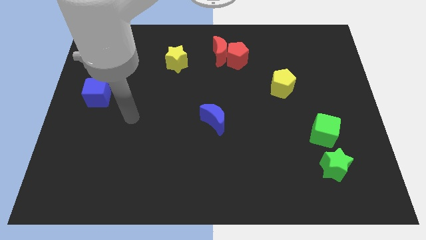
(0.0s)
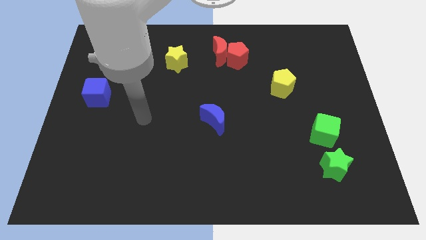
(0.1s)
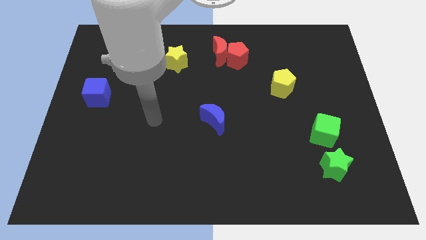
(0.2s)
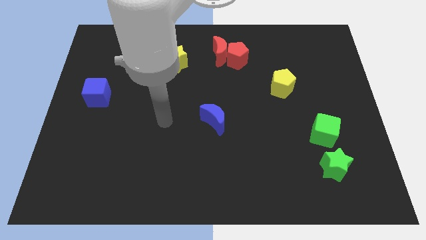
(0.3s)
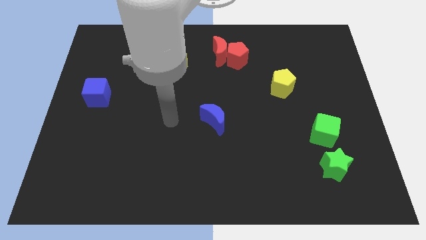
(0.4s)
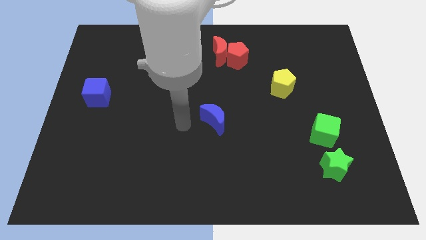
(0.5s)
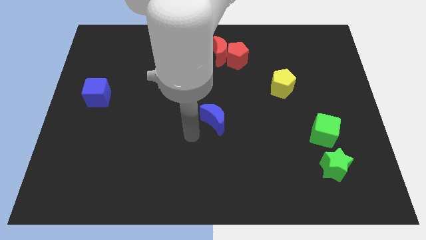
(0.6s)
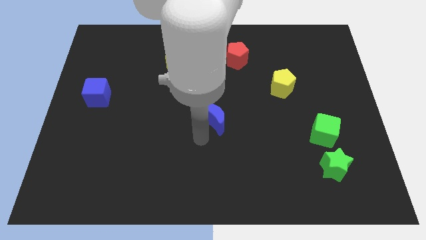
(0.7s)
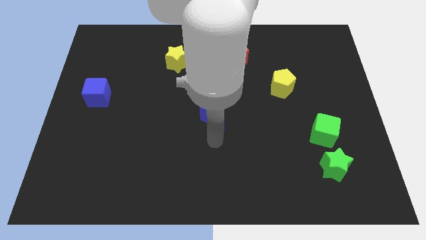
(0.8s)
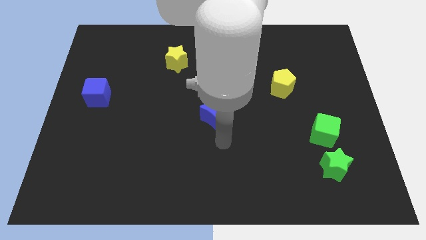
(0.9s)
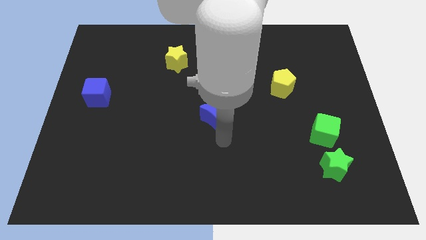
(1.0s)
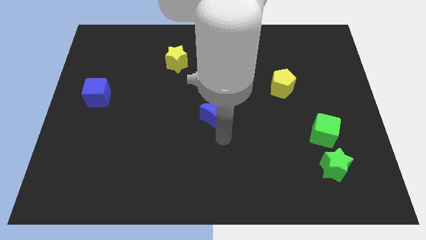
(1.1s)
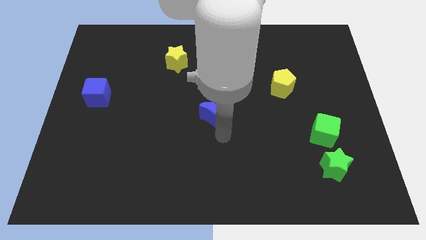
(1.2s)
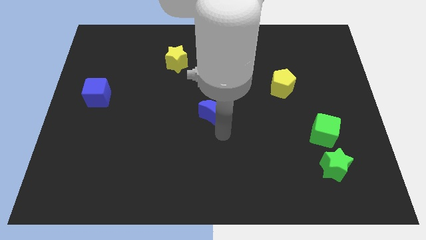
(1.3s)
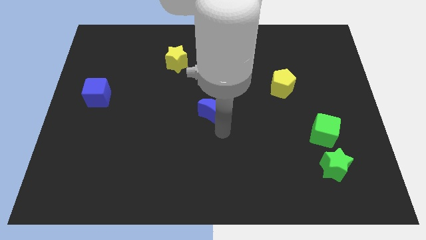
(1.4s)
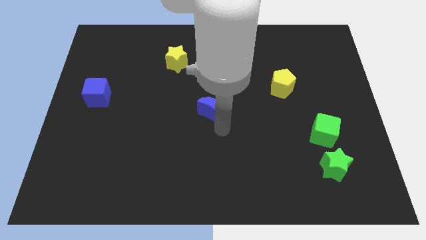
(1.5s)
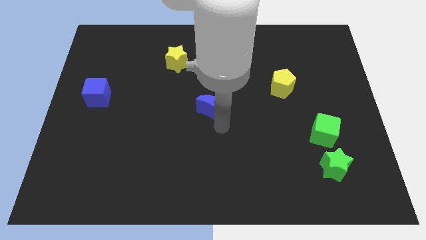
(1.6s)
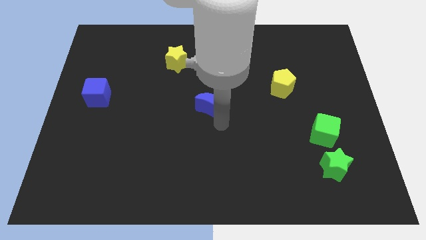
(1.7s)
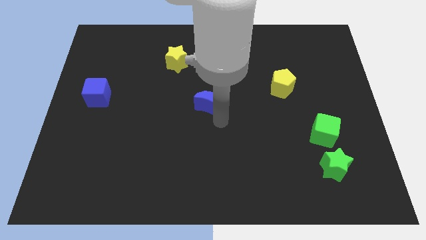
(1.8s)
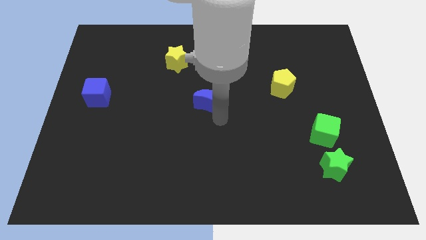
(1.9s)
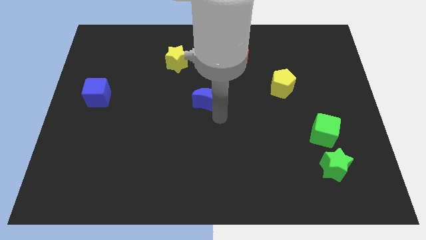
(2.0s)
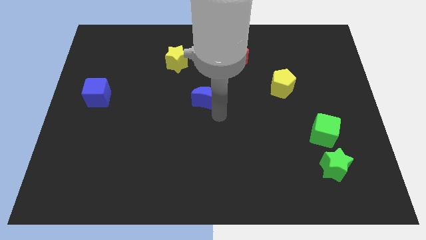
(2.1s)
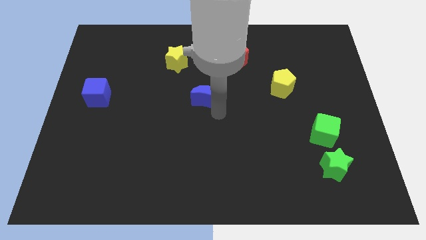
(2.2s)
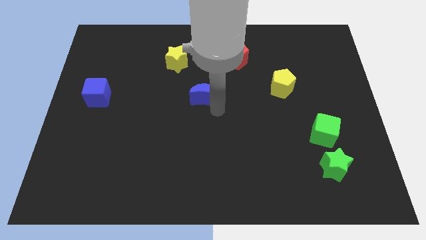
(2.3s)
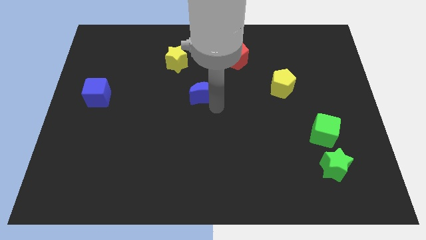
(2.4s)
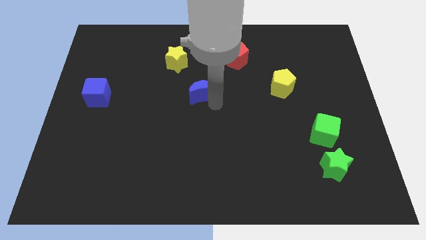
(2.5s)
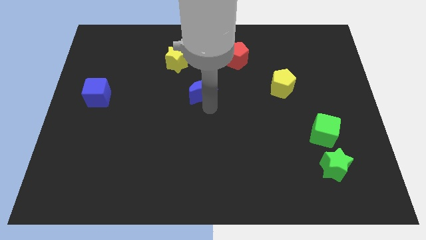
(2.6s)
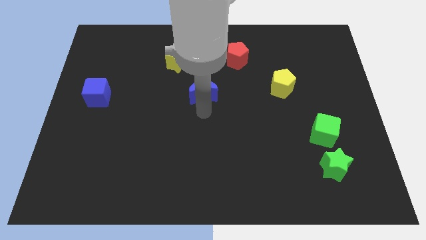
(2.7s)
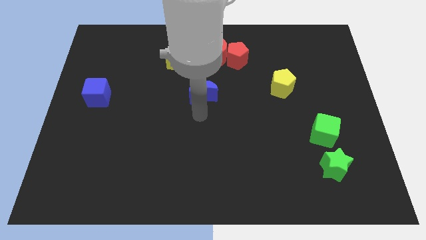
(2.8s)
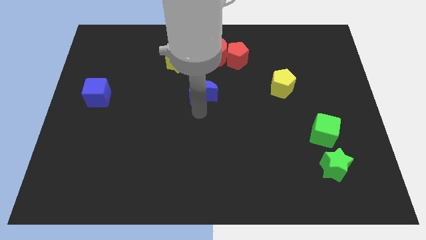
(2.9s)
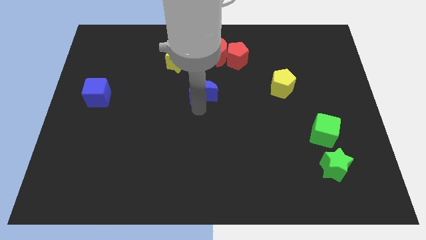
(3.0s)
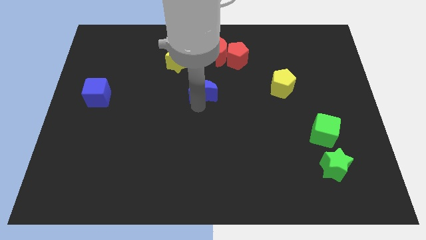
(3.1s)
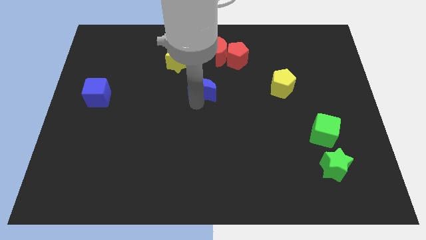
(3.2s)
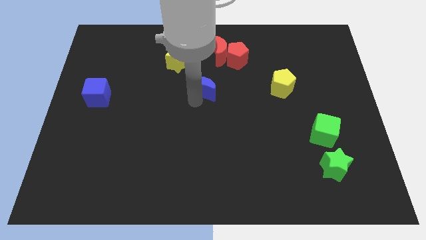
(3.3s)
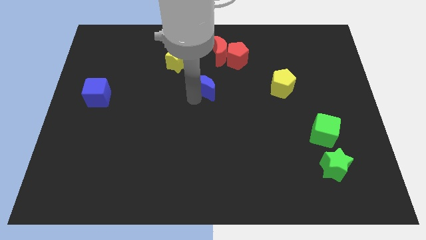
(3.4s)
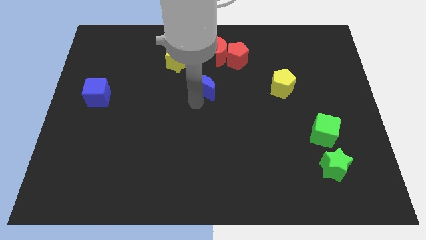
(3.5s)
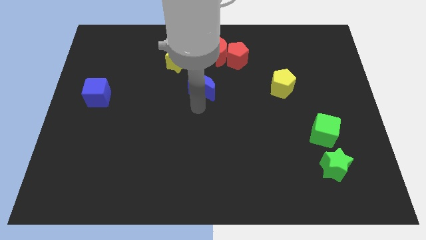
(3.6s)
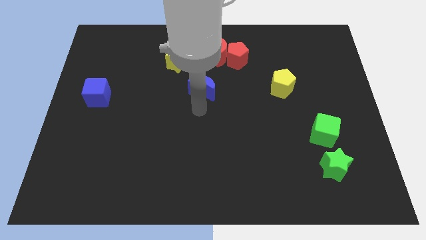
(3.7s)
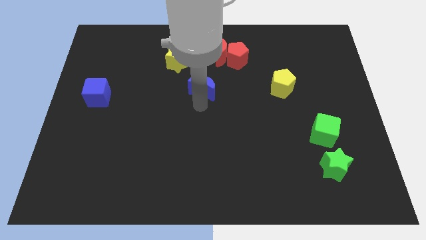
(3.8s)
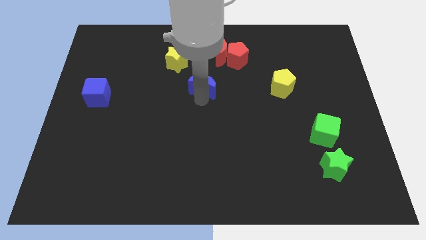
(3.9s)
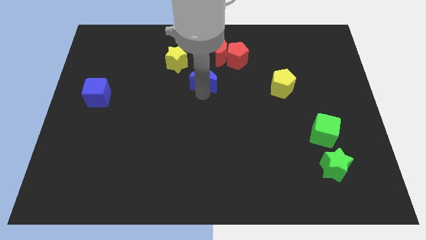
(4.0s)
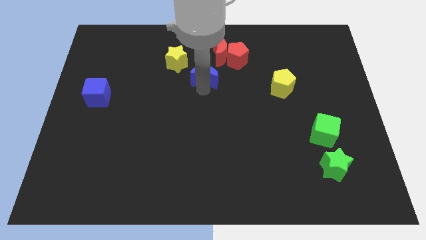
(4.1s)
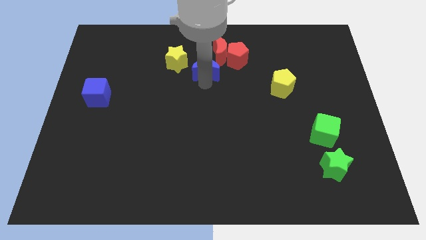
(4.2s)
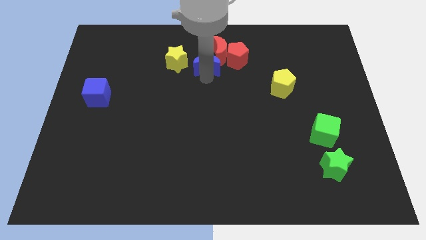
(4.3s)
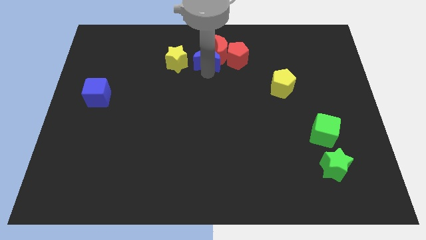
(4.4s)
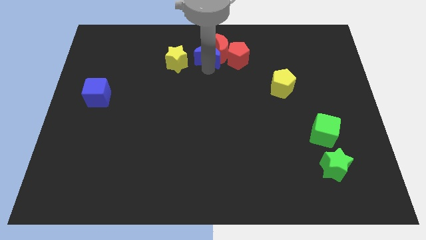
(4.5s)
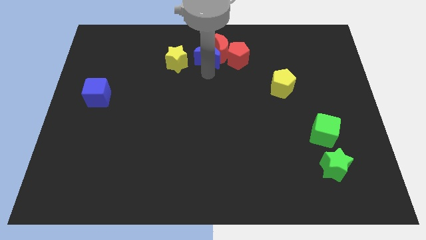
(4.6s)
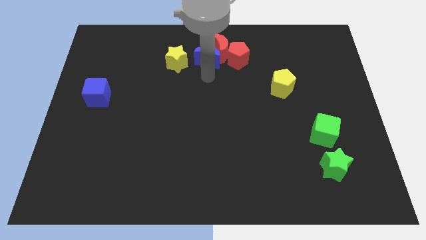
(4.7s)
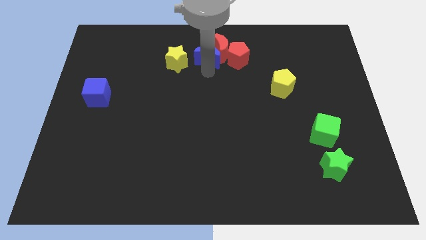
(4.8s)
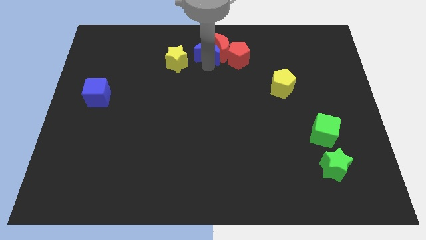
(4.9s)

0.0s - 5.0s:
move the blue moon to the towards your base

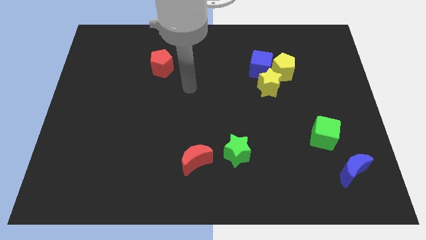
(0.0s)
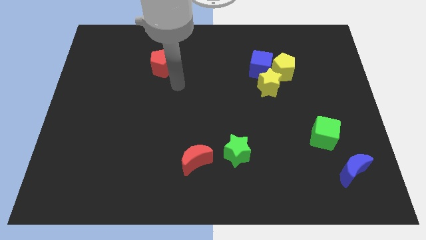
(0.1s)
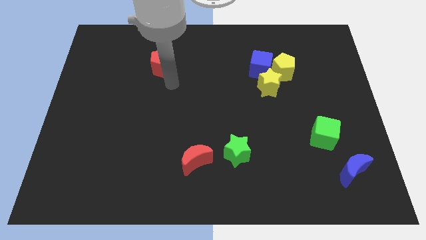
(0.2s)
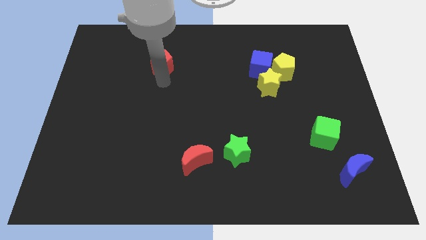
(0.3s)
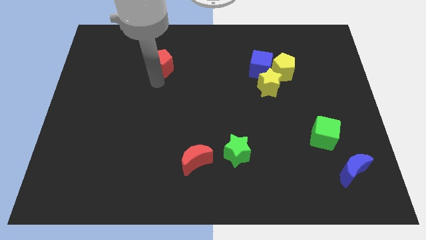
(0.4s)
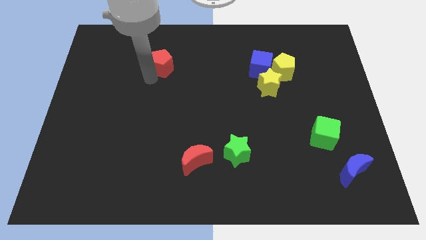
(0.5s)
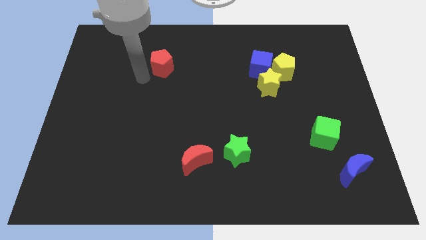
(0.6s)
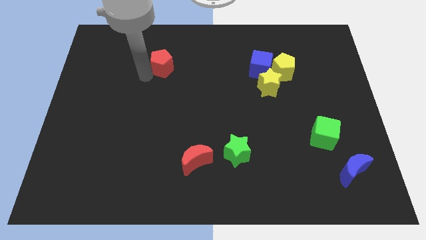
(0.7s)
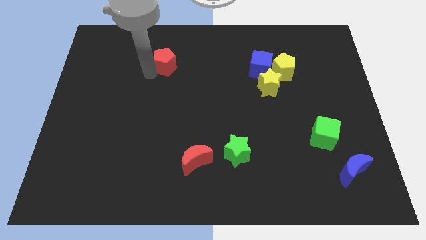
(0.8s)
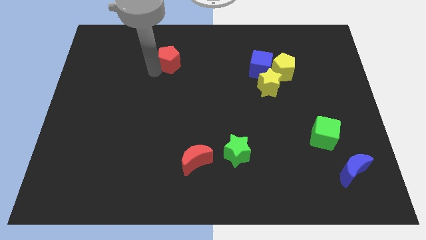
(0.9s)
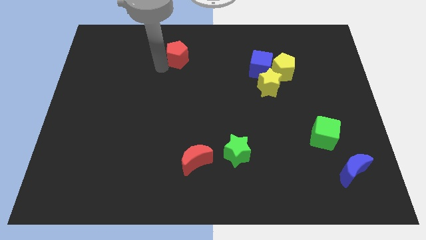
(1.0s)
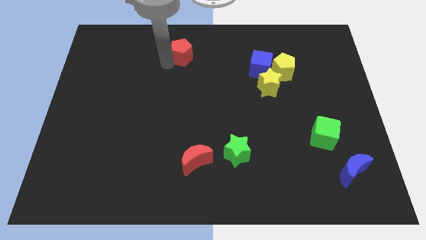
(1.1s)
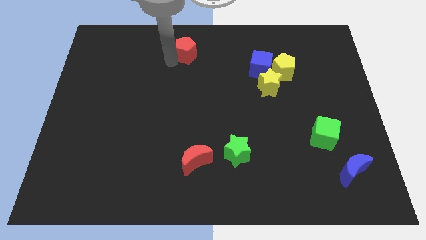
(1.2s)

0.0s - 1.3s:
slide the red pentagon to the top
